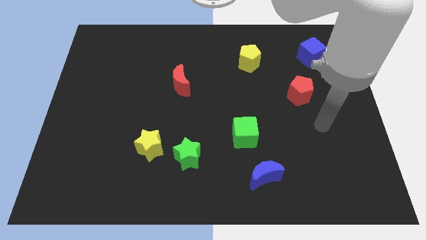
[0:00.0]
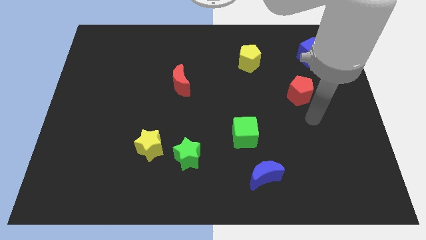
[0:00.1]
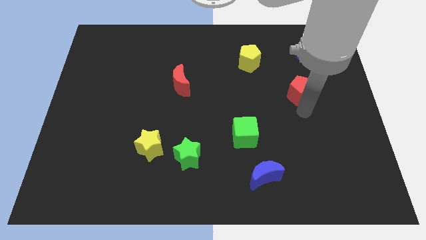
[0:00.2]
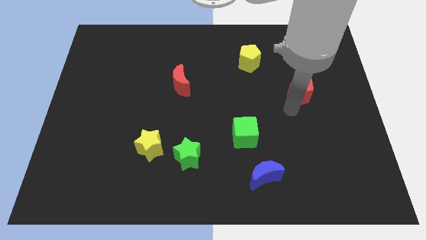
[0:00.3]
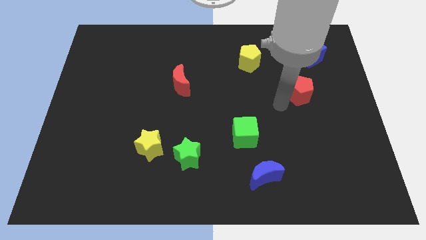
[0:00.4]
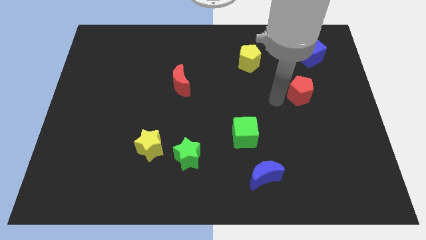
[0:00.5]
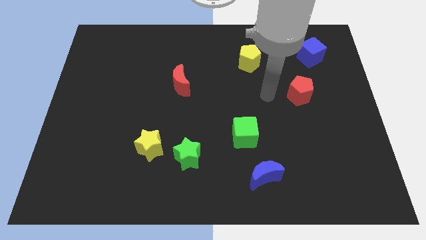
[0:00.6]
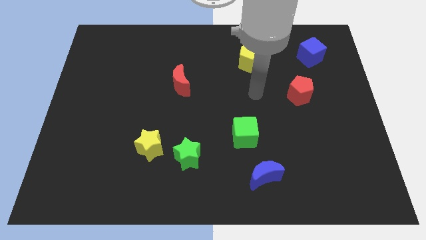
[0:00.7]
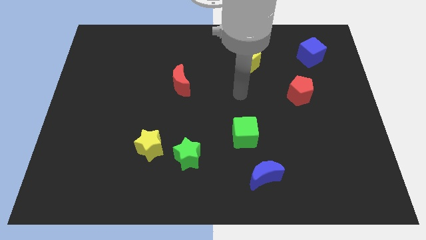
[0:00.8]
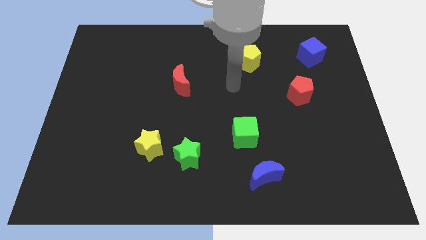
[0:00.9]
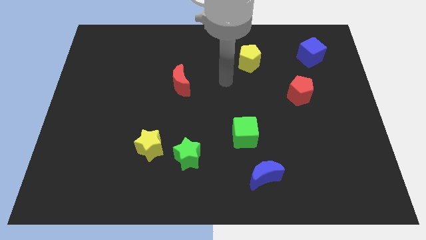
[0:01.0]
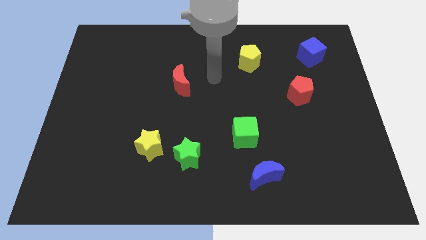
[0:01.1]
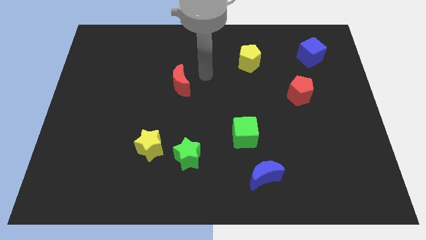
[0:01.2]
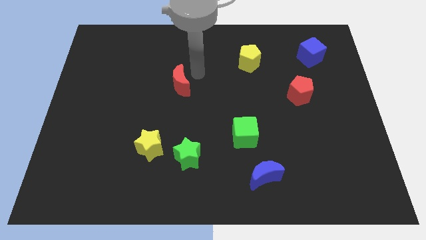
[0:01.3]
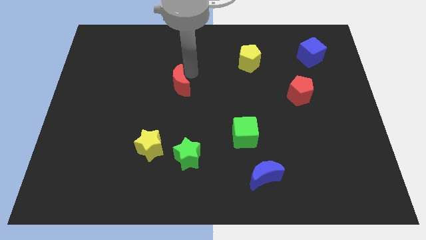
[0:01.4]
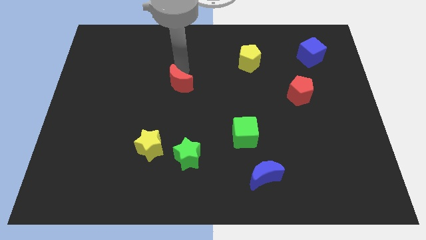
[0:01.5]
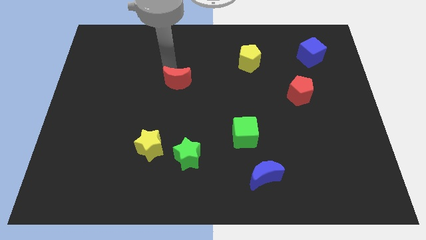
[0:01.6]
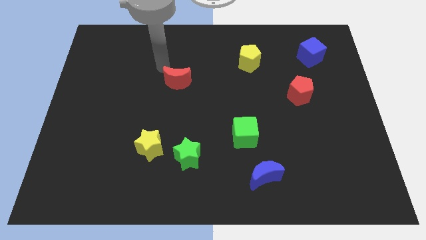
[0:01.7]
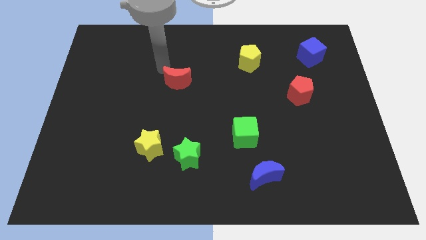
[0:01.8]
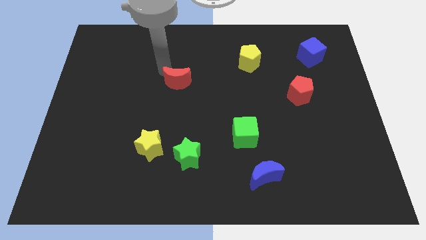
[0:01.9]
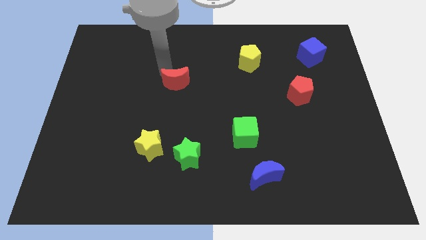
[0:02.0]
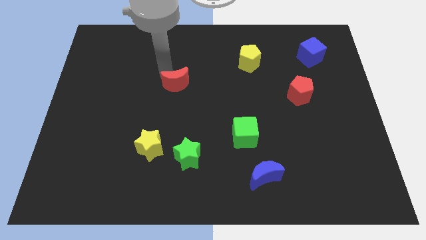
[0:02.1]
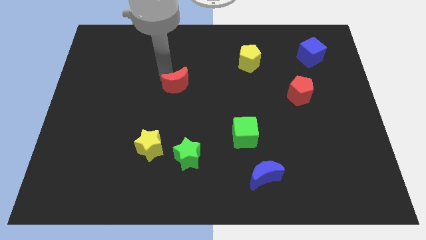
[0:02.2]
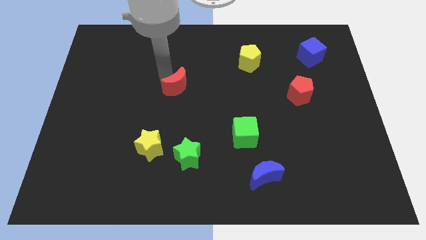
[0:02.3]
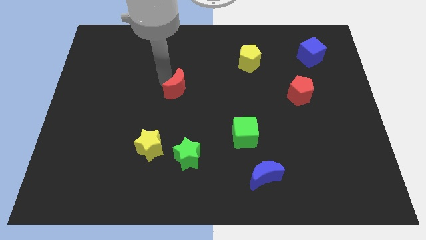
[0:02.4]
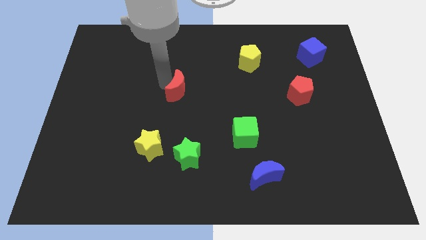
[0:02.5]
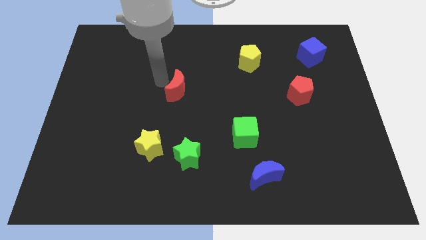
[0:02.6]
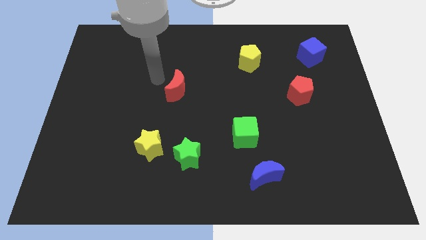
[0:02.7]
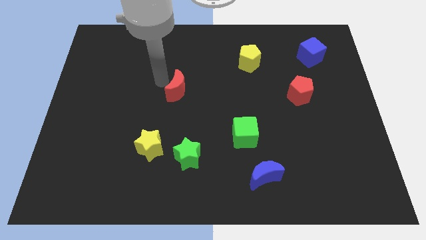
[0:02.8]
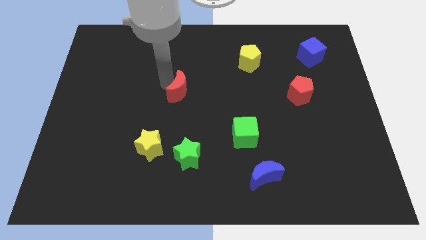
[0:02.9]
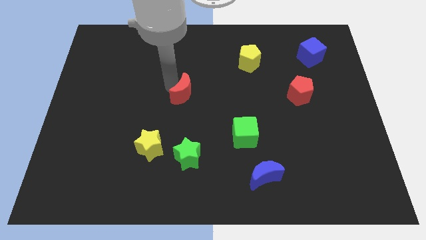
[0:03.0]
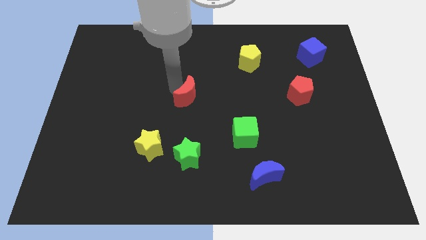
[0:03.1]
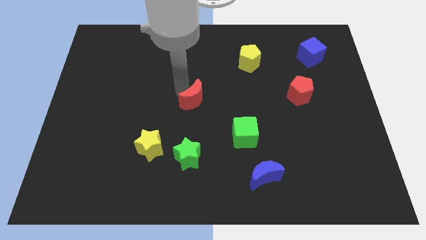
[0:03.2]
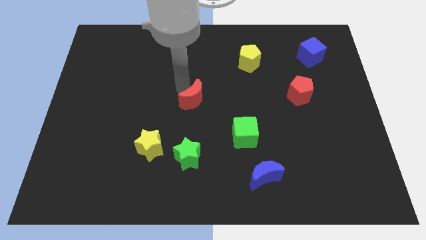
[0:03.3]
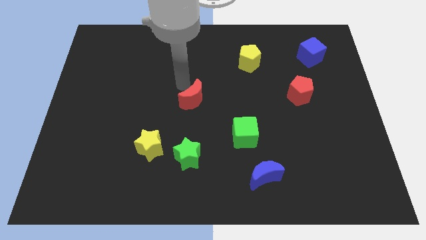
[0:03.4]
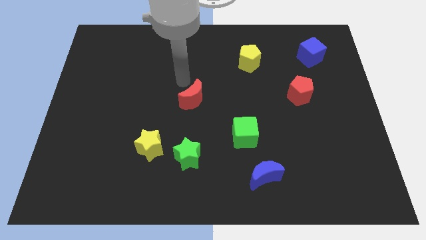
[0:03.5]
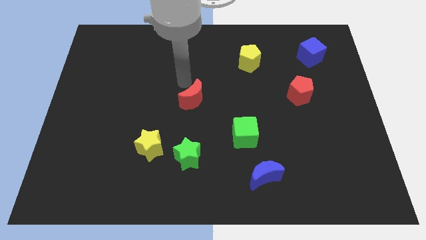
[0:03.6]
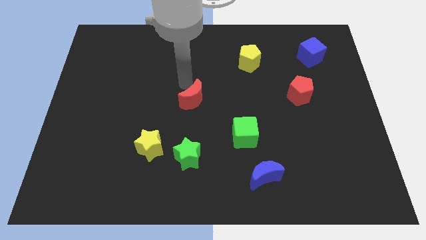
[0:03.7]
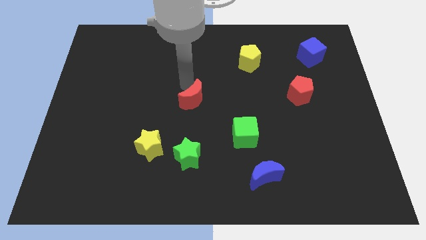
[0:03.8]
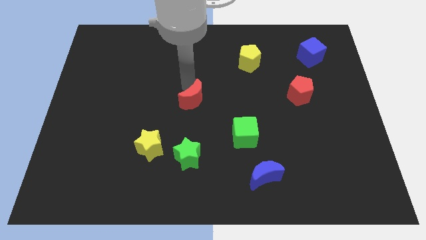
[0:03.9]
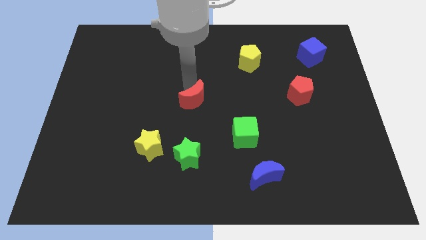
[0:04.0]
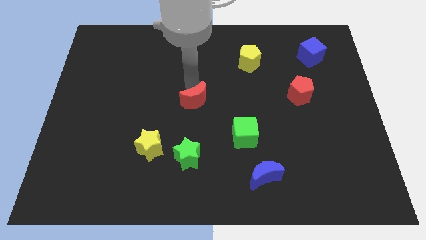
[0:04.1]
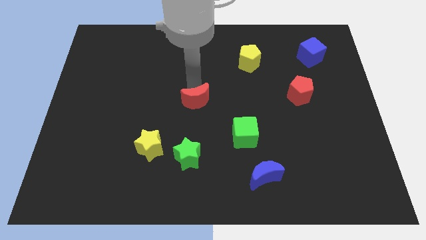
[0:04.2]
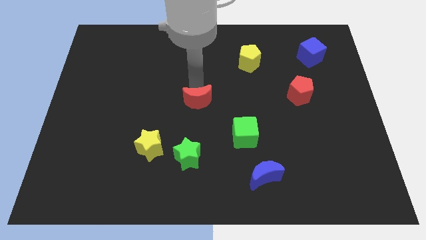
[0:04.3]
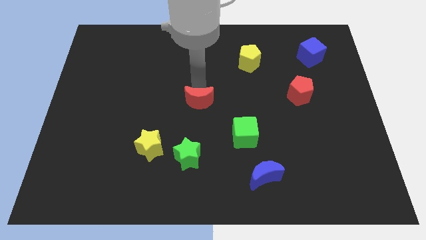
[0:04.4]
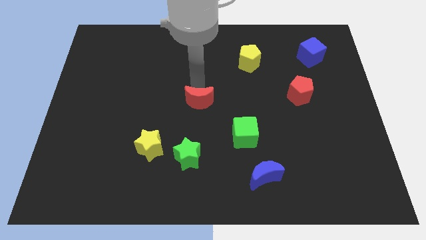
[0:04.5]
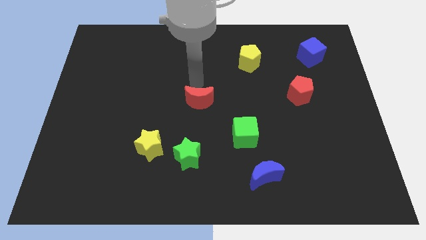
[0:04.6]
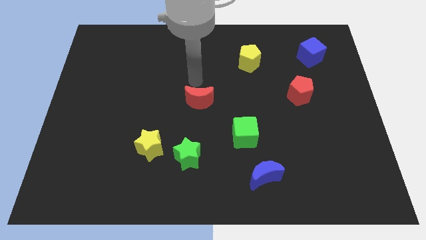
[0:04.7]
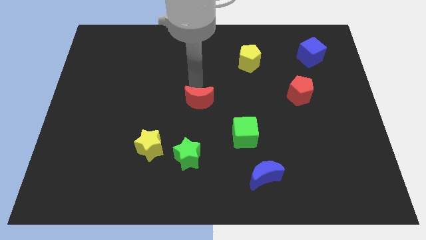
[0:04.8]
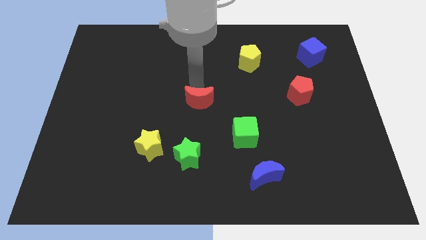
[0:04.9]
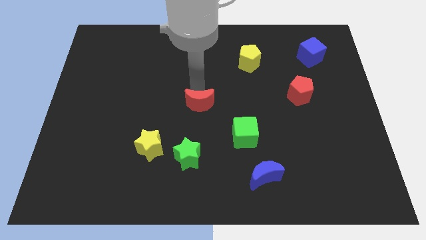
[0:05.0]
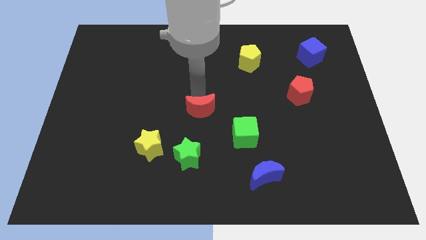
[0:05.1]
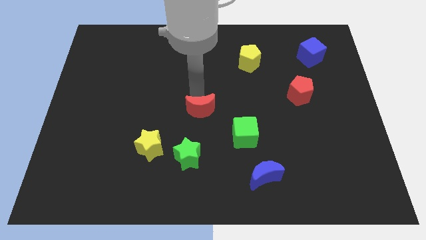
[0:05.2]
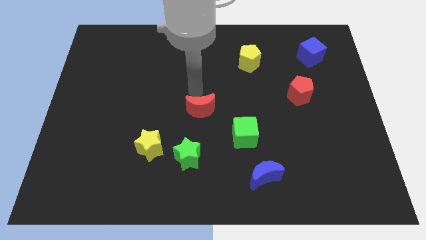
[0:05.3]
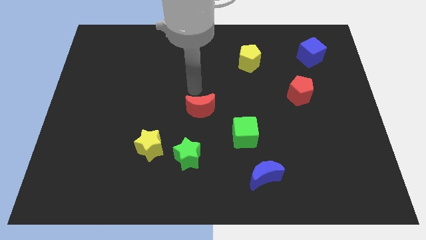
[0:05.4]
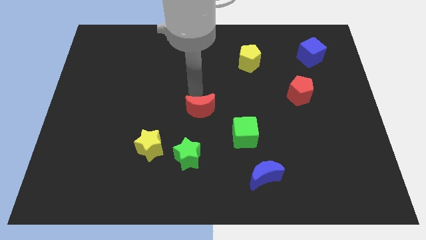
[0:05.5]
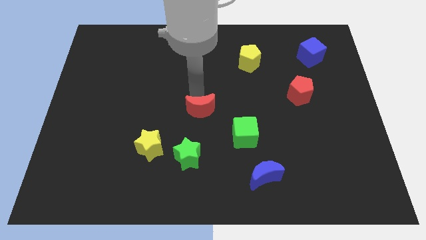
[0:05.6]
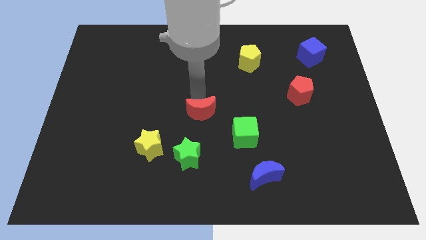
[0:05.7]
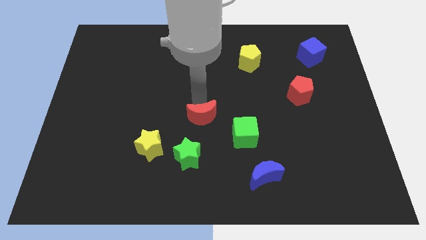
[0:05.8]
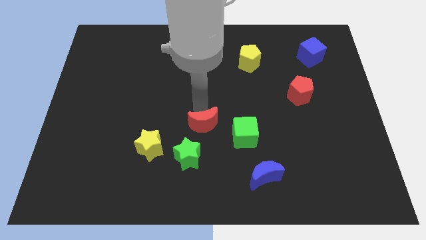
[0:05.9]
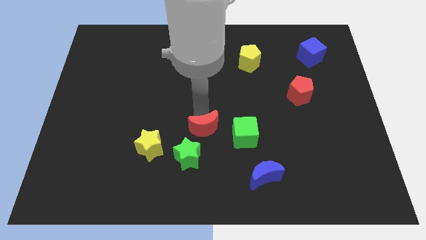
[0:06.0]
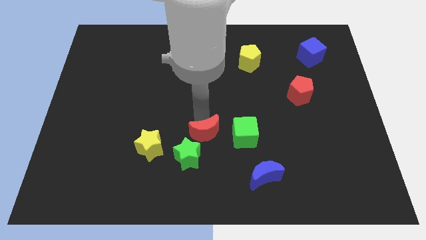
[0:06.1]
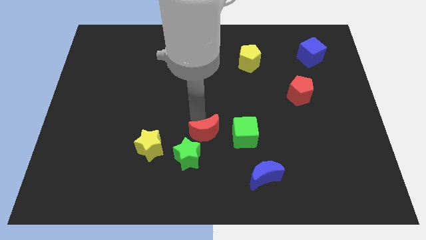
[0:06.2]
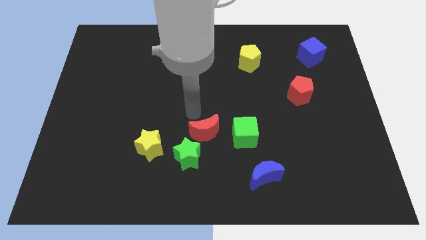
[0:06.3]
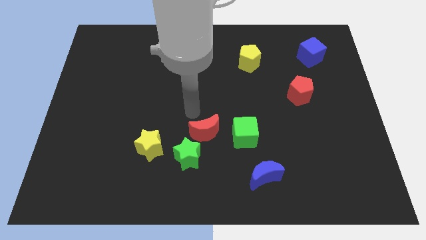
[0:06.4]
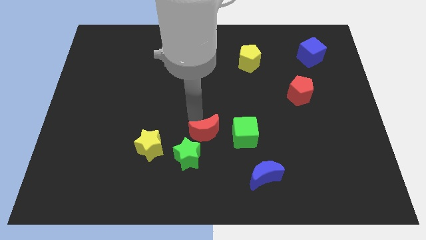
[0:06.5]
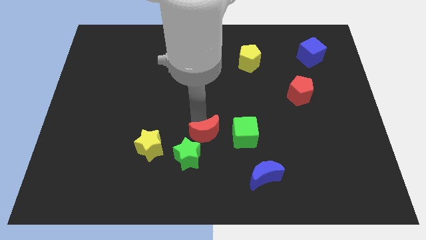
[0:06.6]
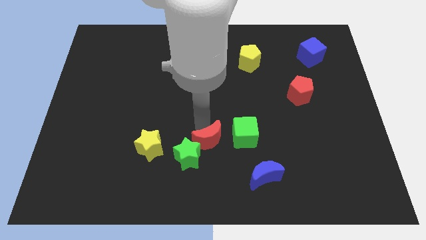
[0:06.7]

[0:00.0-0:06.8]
move the red moon to the bottom left of the green cube

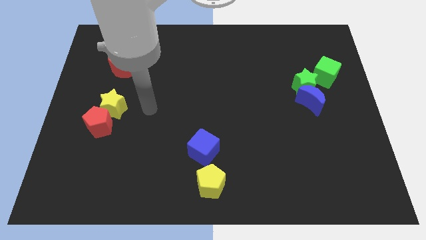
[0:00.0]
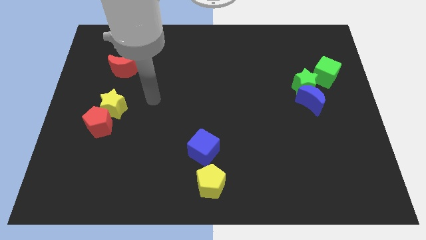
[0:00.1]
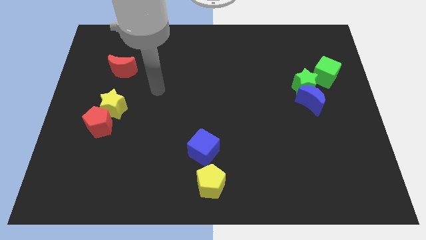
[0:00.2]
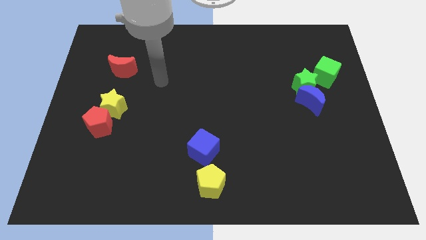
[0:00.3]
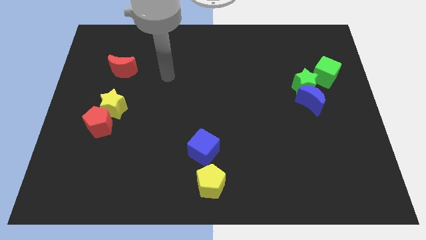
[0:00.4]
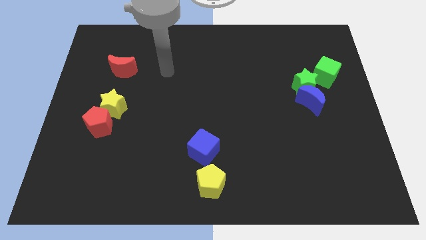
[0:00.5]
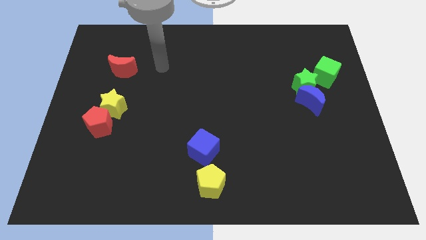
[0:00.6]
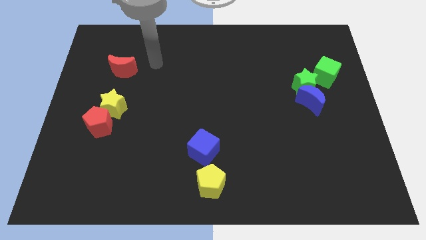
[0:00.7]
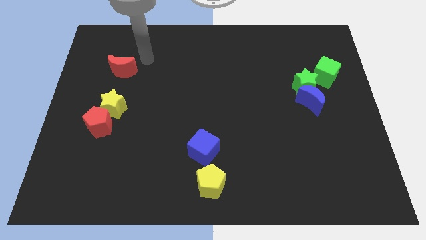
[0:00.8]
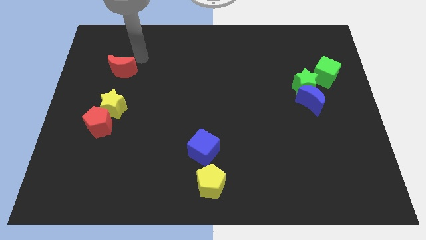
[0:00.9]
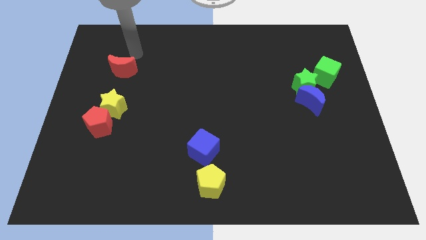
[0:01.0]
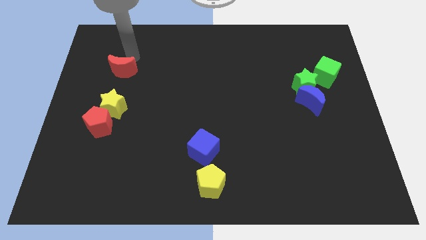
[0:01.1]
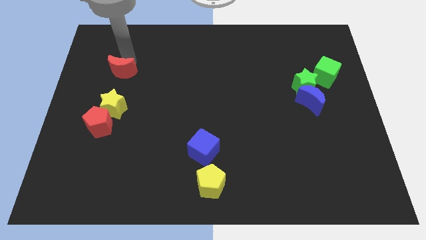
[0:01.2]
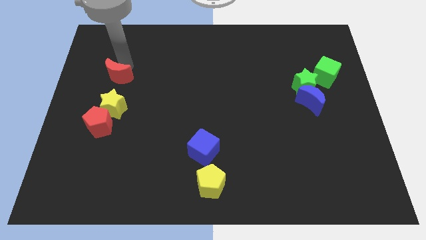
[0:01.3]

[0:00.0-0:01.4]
put the red moon above the red pentagon
